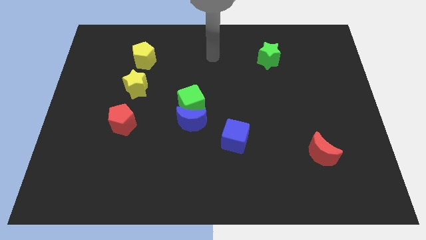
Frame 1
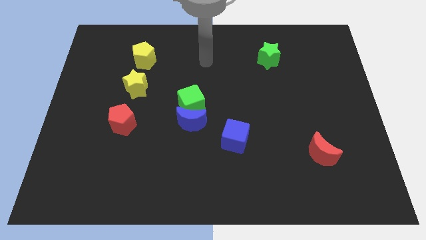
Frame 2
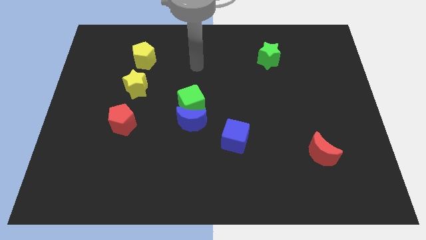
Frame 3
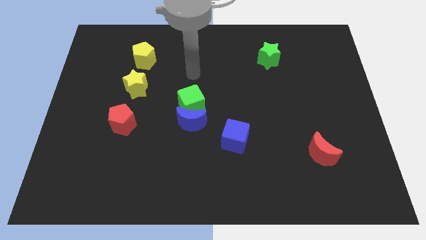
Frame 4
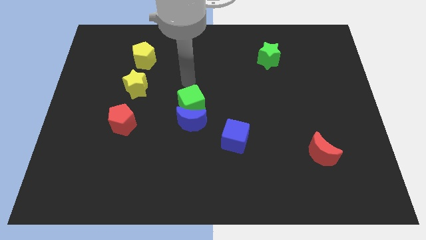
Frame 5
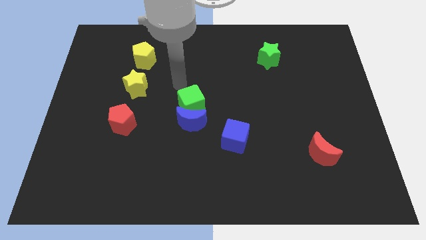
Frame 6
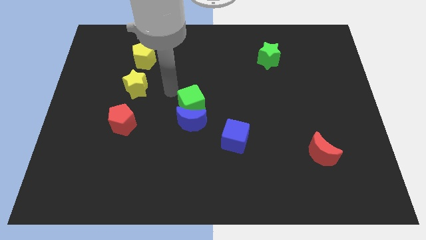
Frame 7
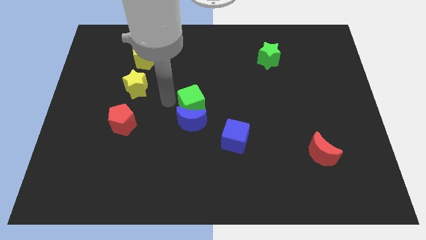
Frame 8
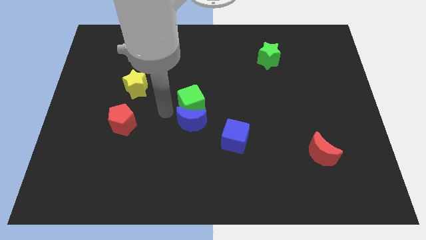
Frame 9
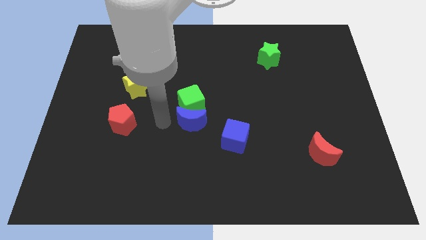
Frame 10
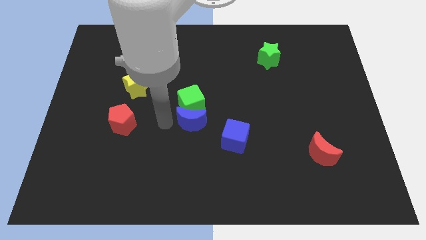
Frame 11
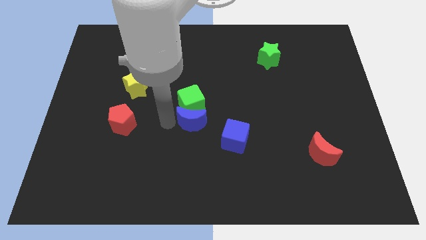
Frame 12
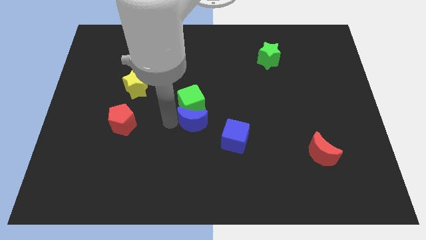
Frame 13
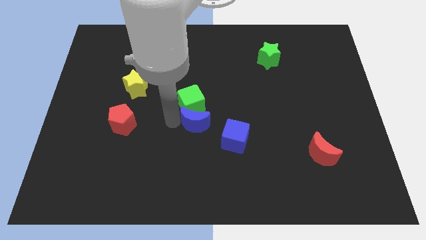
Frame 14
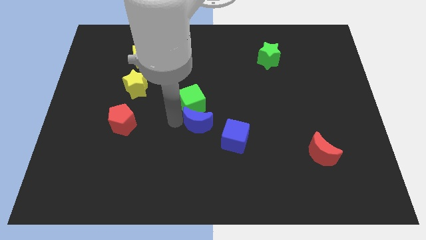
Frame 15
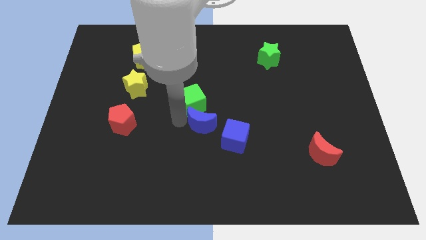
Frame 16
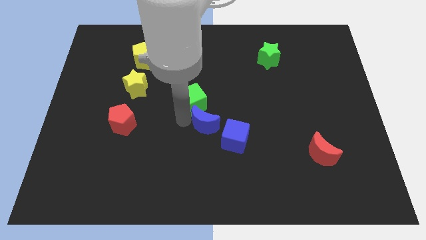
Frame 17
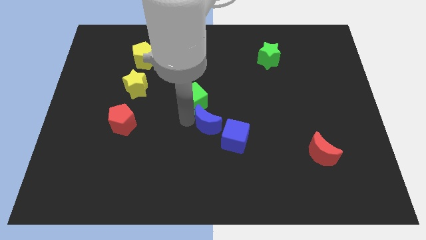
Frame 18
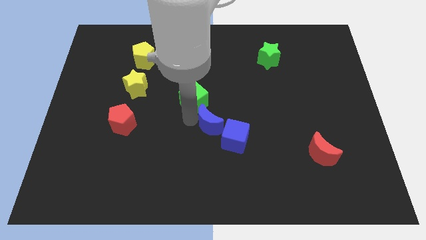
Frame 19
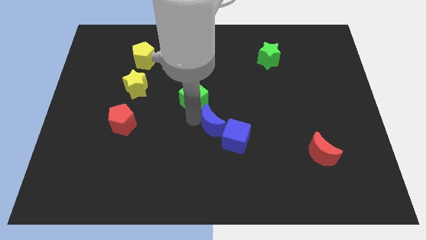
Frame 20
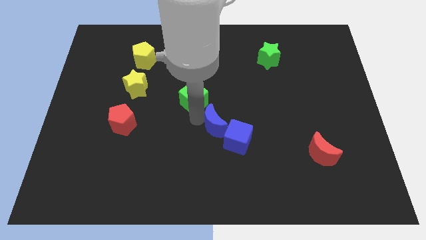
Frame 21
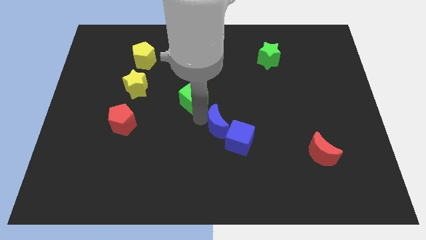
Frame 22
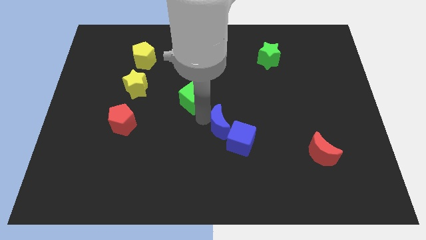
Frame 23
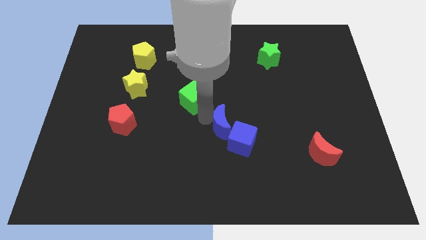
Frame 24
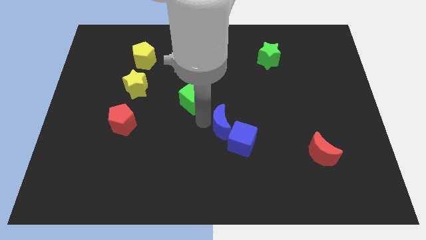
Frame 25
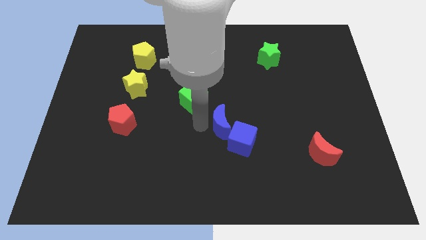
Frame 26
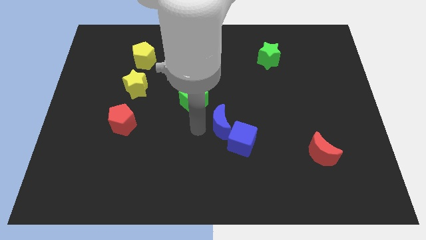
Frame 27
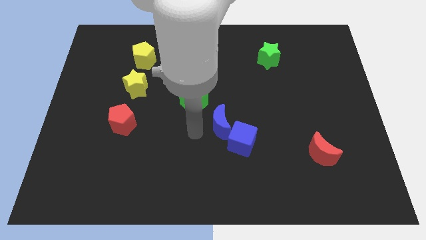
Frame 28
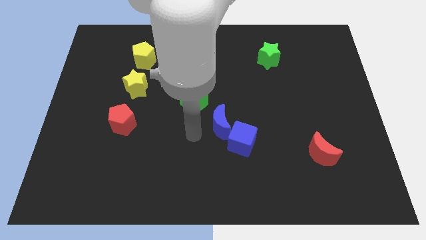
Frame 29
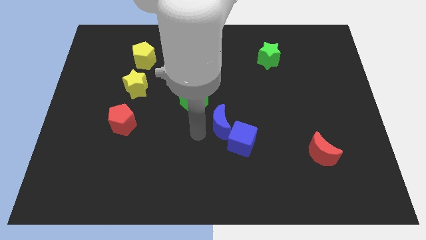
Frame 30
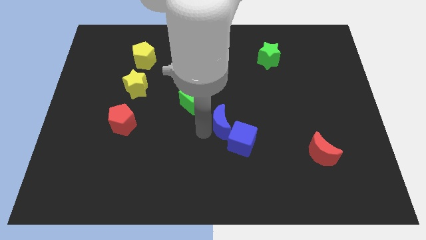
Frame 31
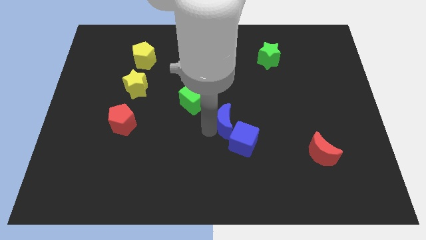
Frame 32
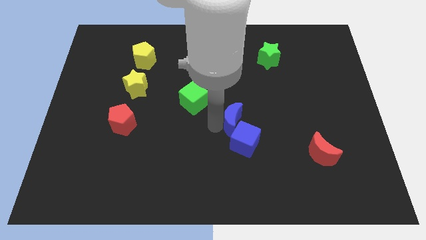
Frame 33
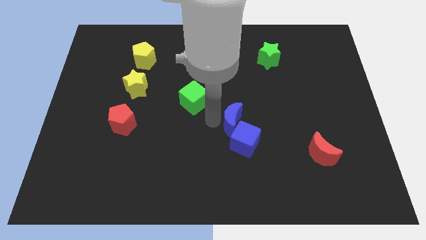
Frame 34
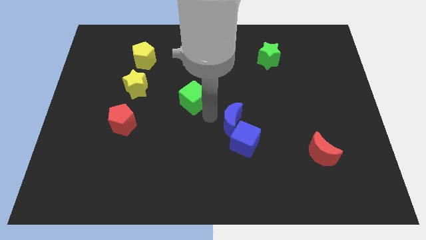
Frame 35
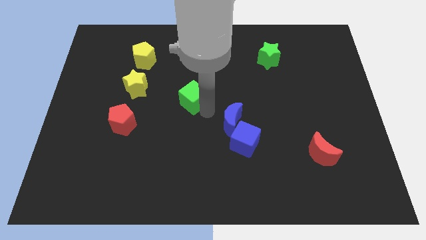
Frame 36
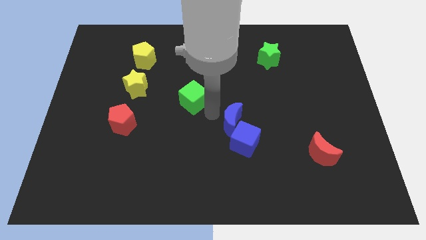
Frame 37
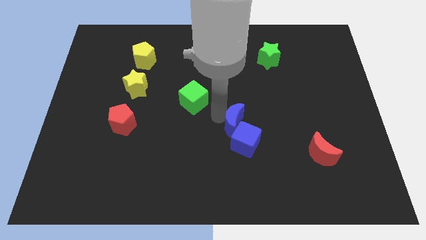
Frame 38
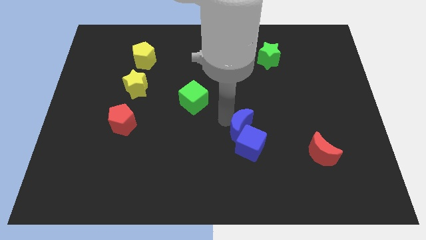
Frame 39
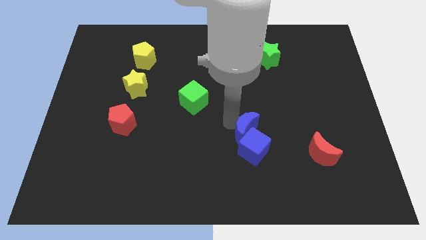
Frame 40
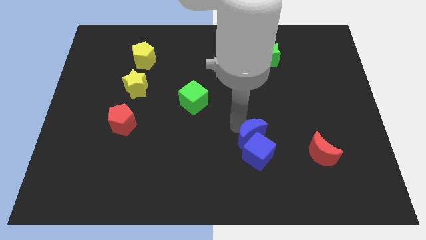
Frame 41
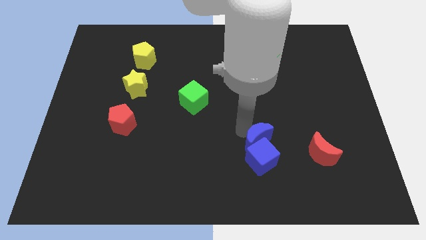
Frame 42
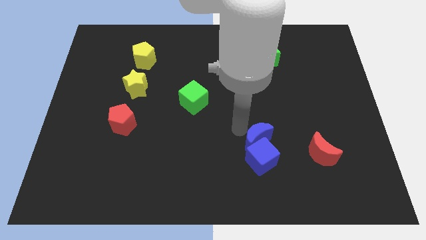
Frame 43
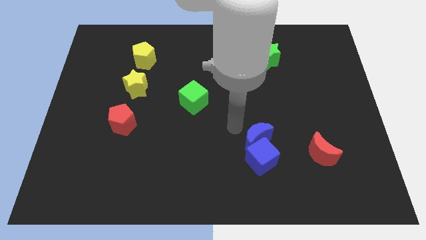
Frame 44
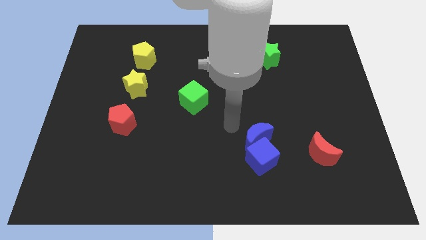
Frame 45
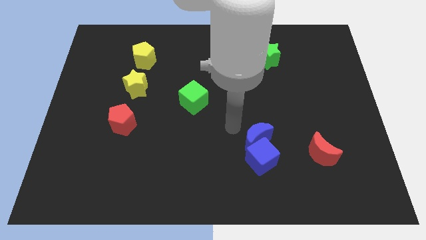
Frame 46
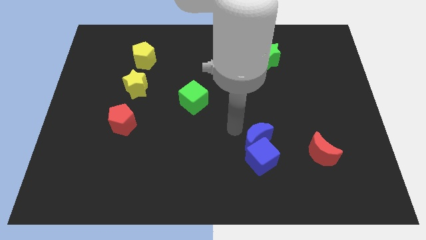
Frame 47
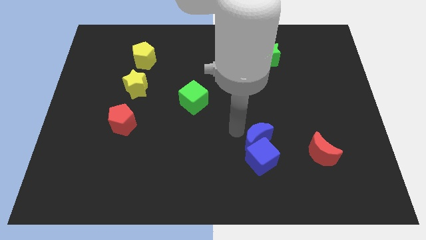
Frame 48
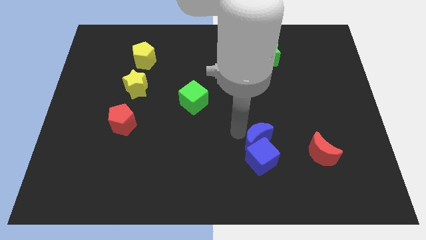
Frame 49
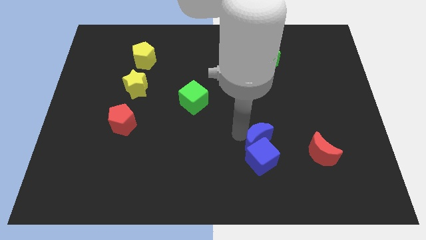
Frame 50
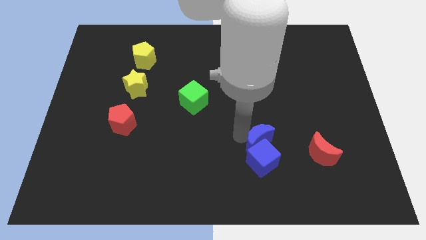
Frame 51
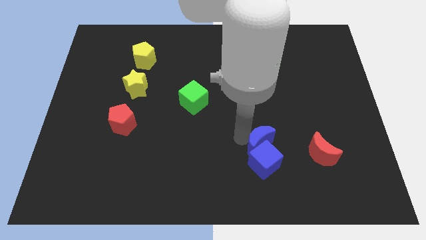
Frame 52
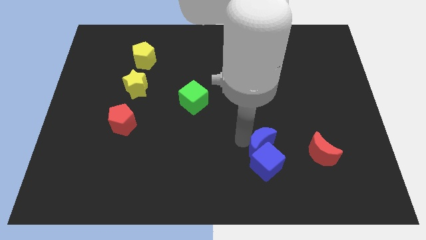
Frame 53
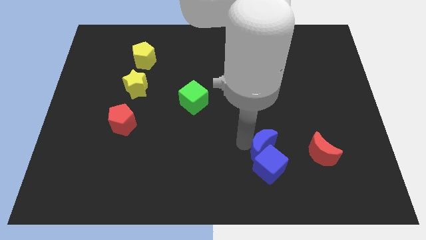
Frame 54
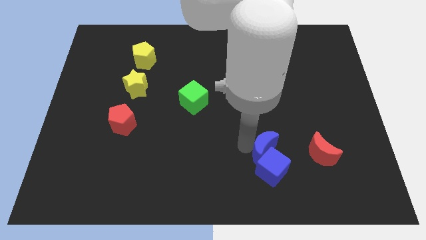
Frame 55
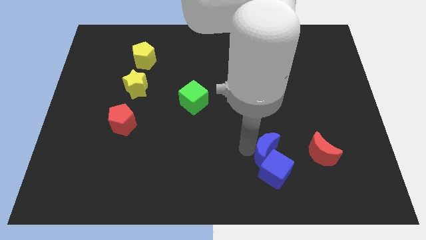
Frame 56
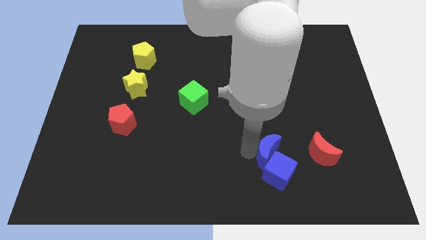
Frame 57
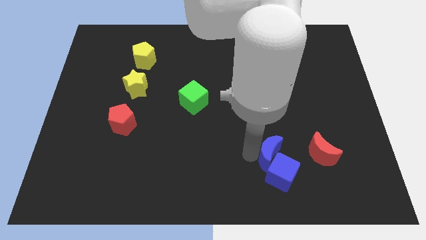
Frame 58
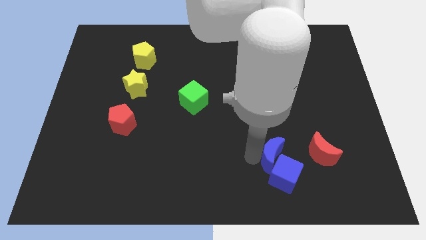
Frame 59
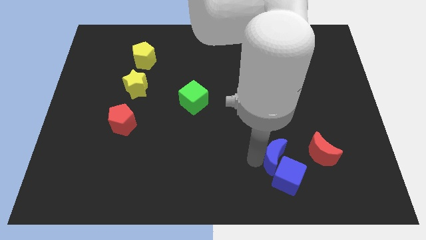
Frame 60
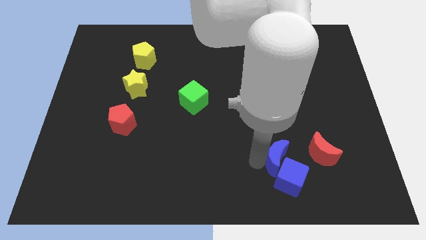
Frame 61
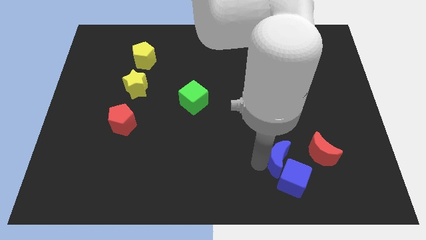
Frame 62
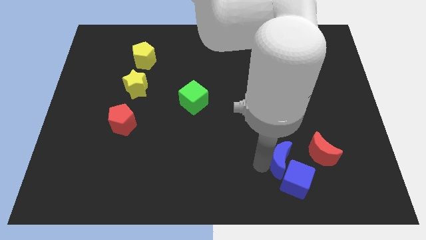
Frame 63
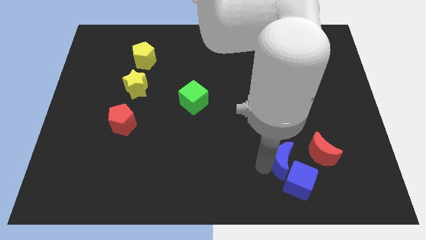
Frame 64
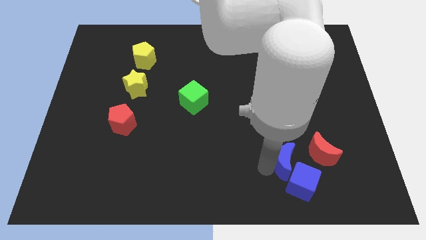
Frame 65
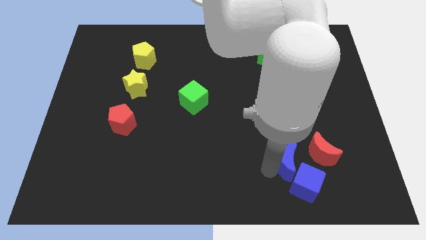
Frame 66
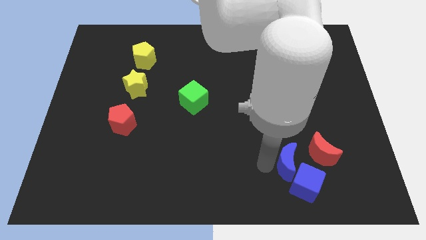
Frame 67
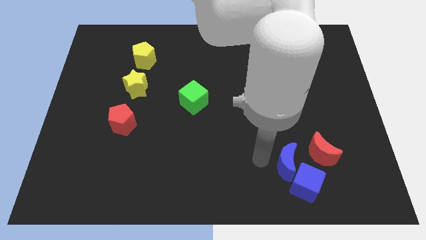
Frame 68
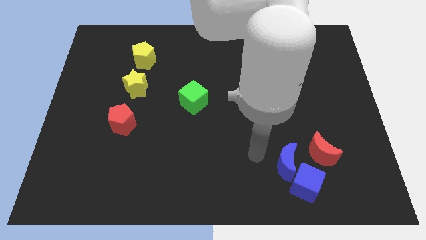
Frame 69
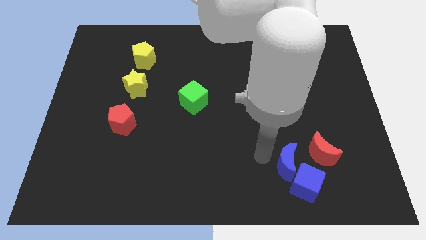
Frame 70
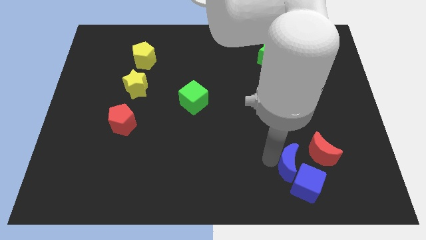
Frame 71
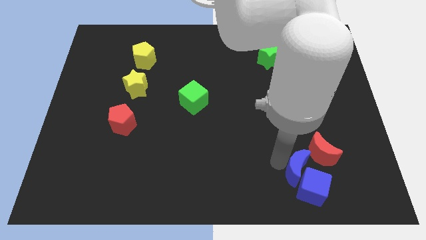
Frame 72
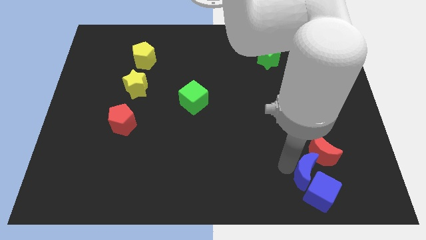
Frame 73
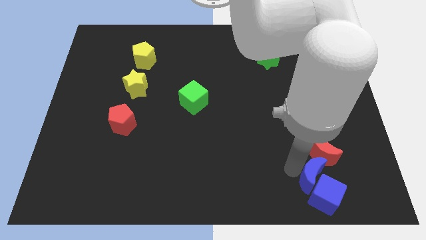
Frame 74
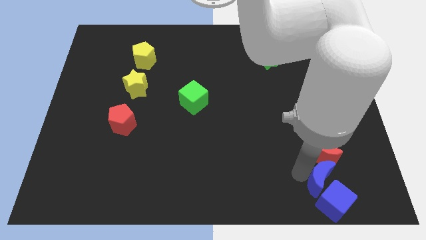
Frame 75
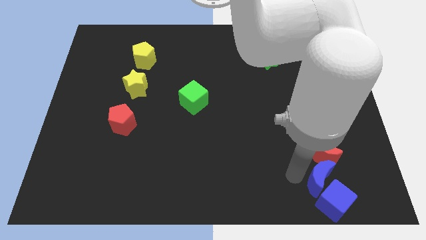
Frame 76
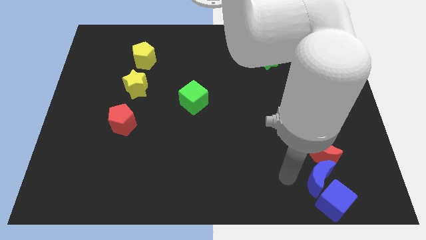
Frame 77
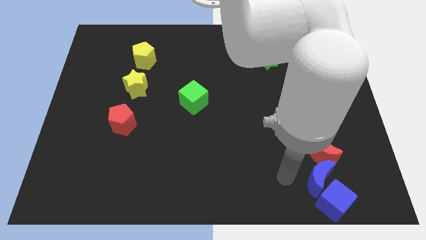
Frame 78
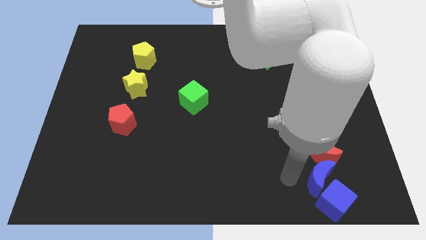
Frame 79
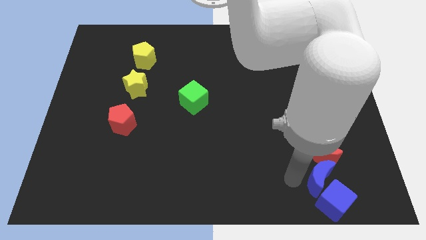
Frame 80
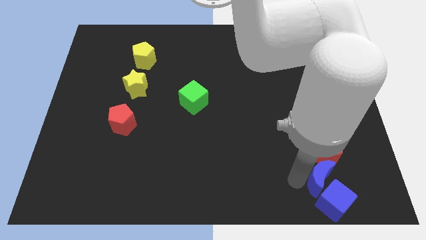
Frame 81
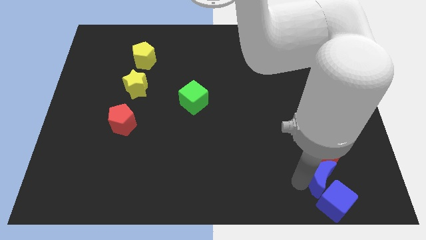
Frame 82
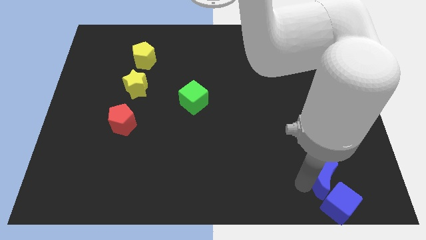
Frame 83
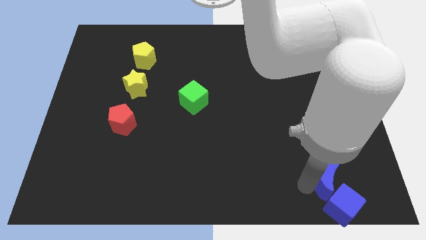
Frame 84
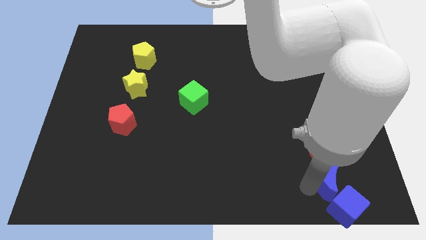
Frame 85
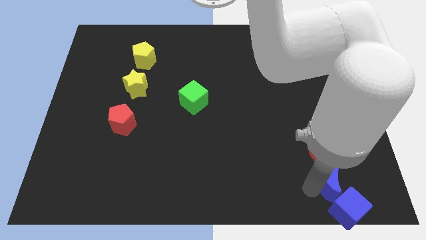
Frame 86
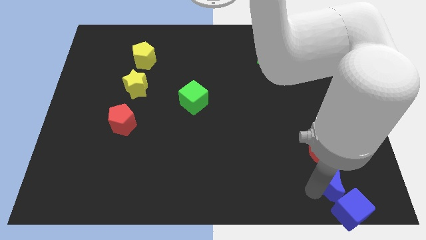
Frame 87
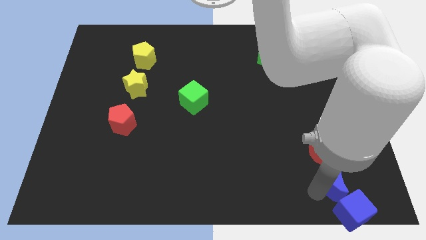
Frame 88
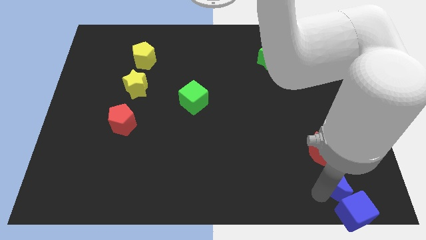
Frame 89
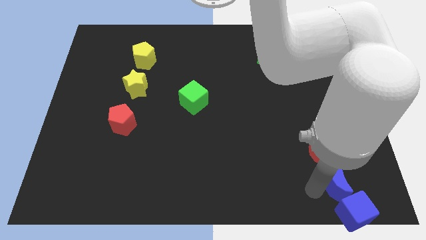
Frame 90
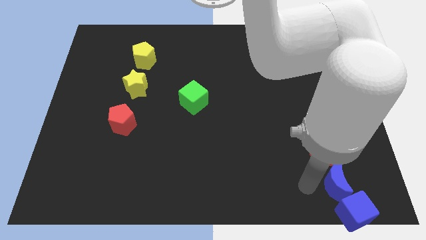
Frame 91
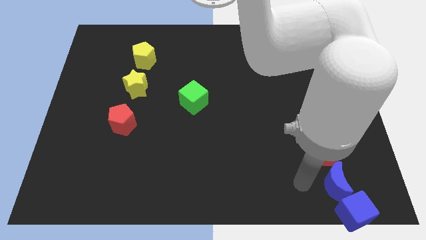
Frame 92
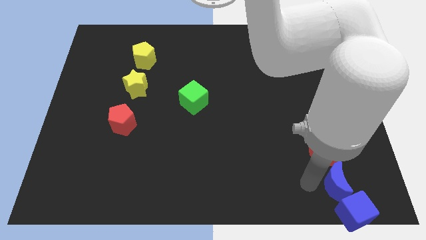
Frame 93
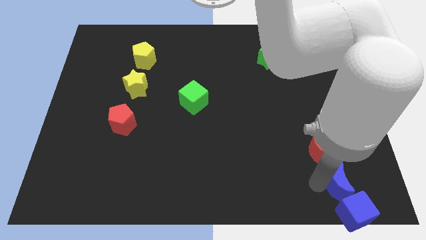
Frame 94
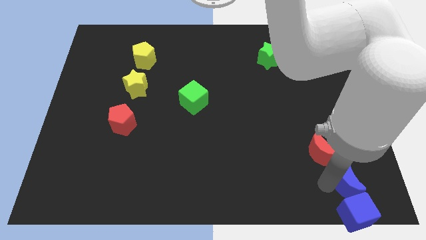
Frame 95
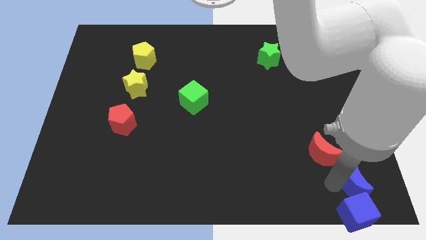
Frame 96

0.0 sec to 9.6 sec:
move the blue moon to the bottom right corner
